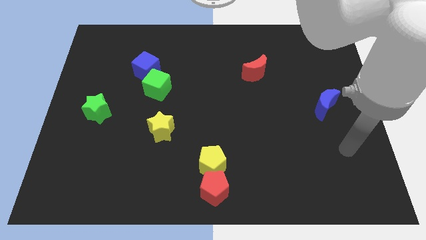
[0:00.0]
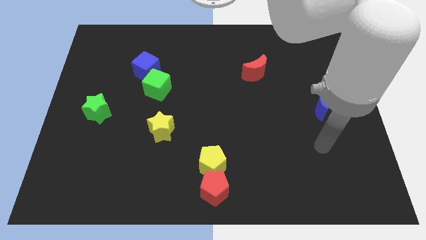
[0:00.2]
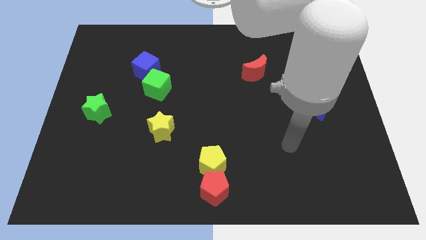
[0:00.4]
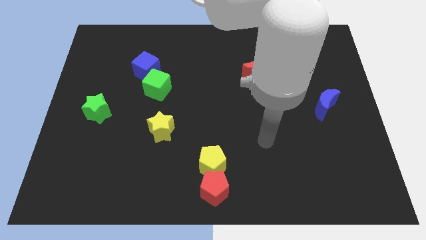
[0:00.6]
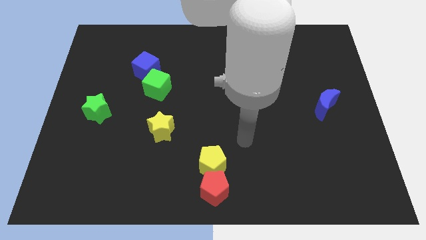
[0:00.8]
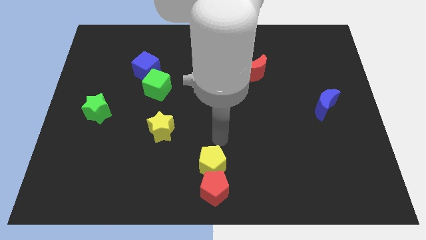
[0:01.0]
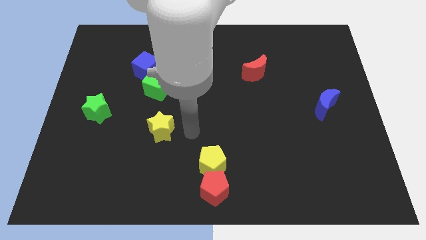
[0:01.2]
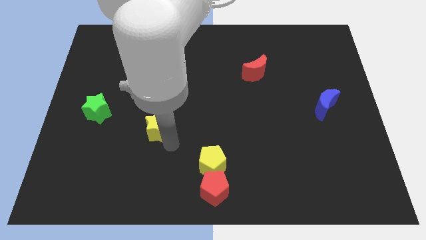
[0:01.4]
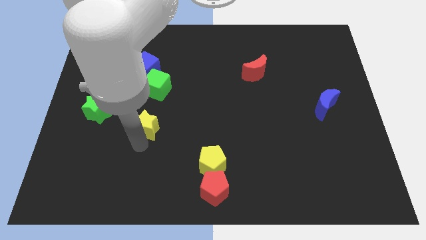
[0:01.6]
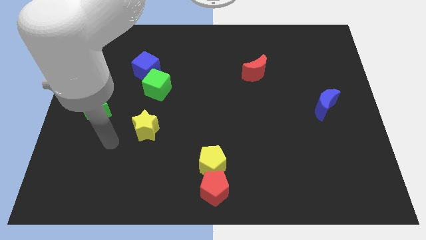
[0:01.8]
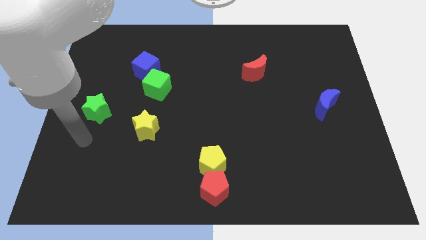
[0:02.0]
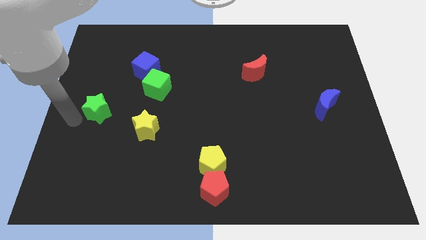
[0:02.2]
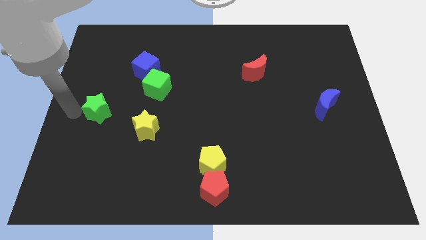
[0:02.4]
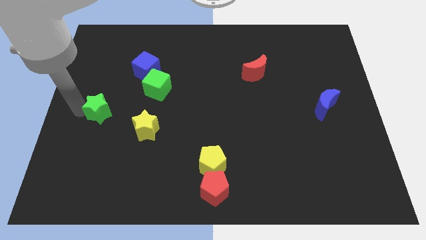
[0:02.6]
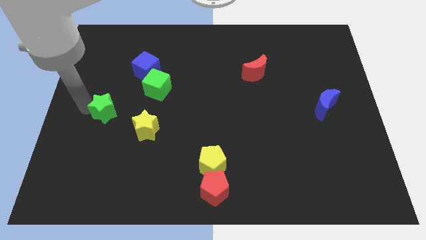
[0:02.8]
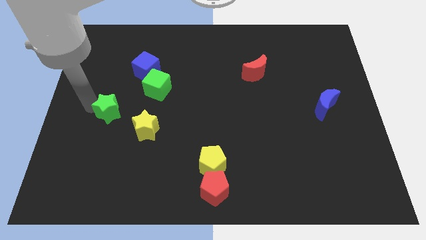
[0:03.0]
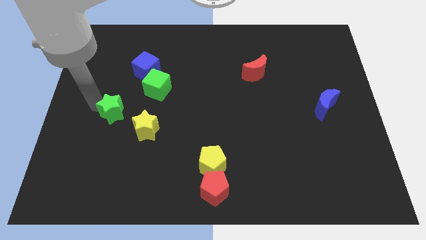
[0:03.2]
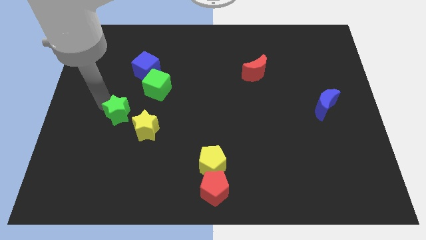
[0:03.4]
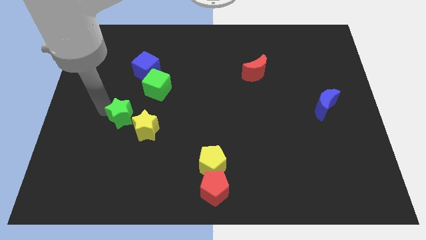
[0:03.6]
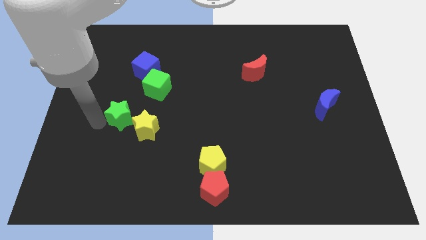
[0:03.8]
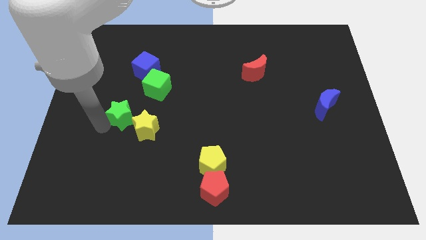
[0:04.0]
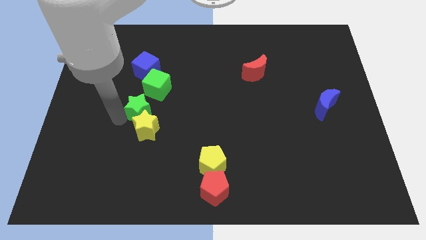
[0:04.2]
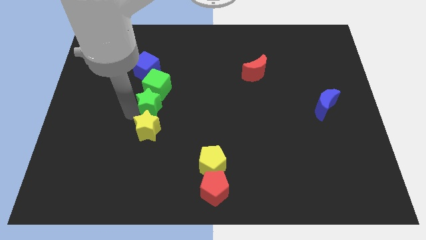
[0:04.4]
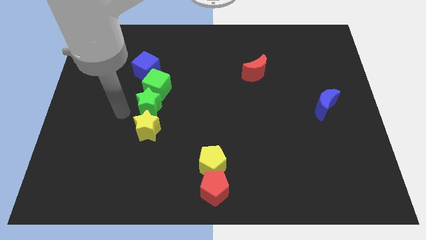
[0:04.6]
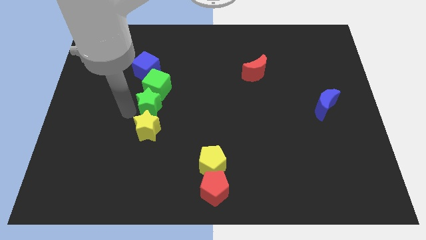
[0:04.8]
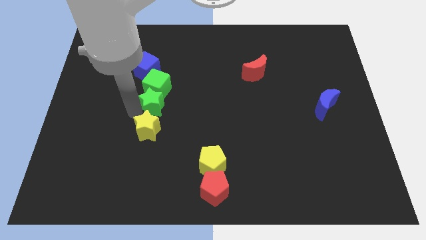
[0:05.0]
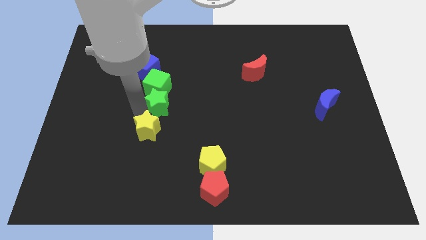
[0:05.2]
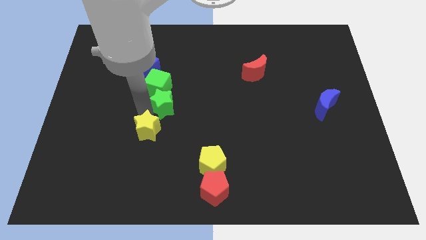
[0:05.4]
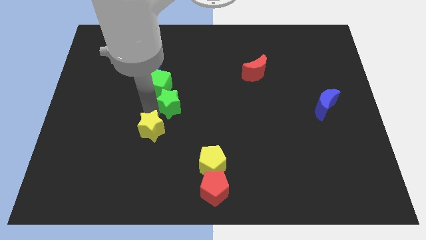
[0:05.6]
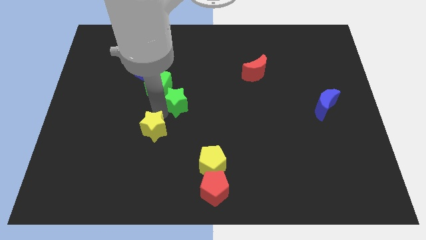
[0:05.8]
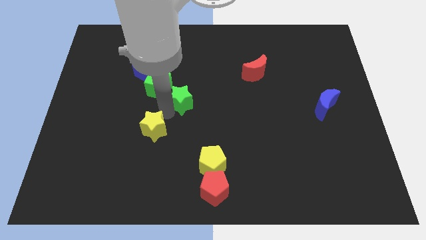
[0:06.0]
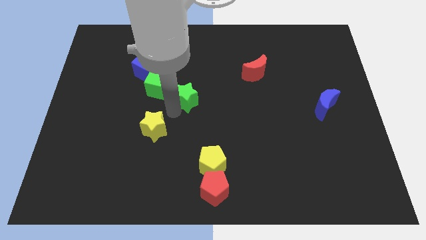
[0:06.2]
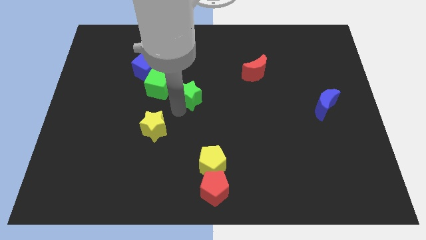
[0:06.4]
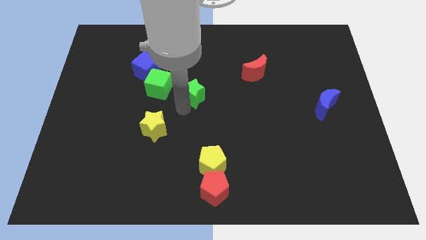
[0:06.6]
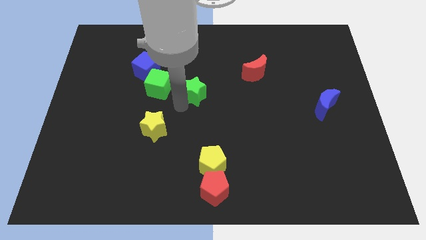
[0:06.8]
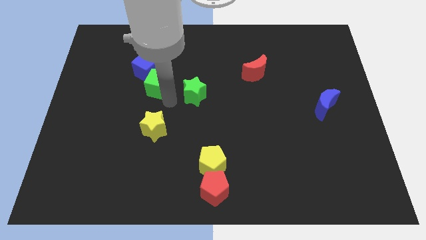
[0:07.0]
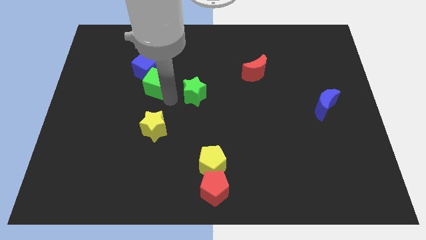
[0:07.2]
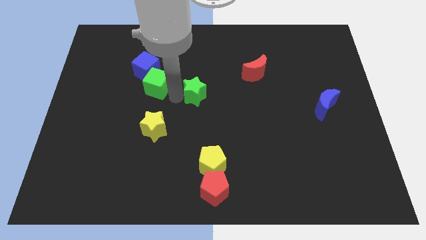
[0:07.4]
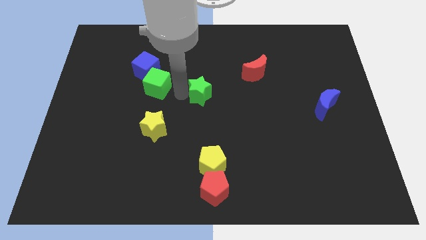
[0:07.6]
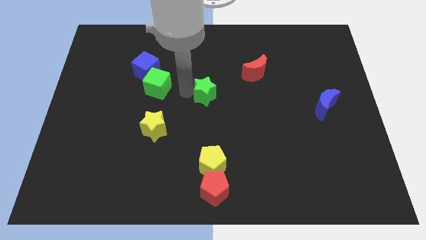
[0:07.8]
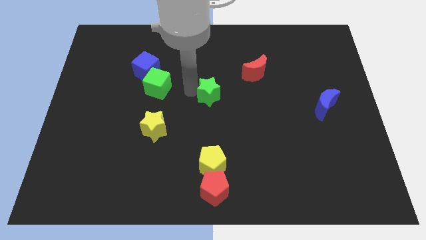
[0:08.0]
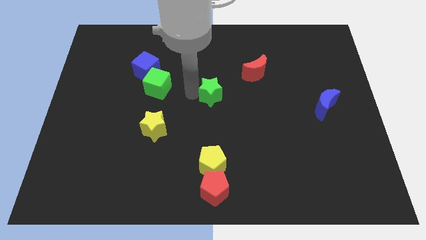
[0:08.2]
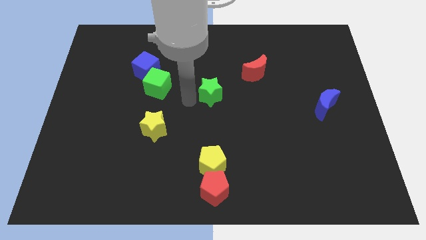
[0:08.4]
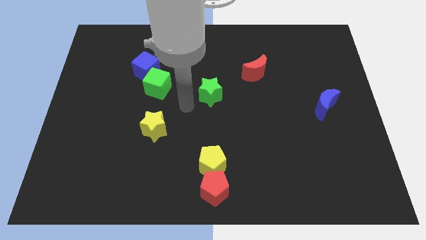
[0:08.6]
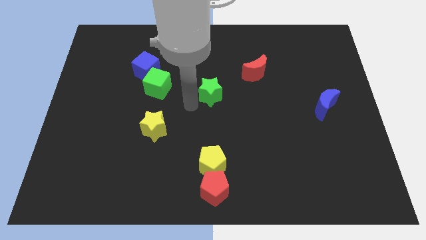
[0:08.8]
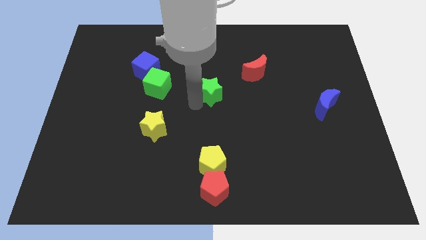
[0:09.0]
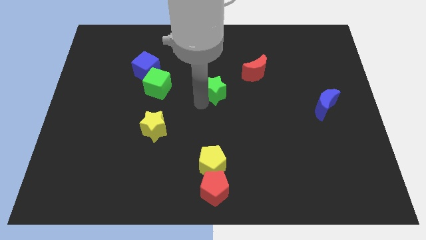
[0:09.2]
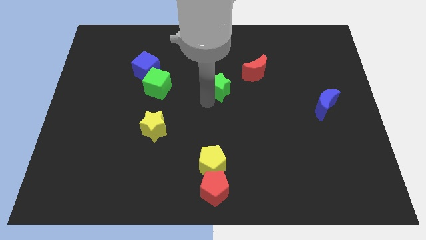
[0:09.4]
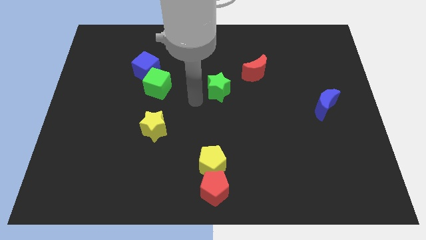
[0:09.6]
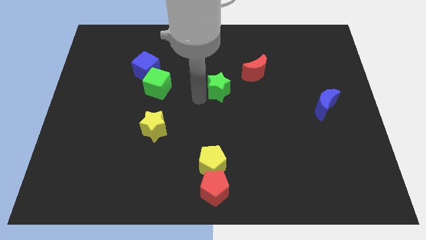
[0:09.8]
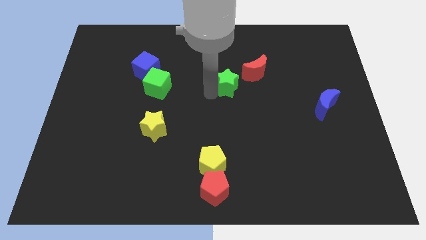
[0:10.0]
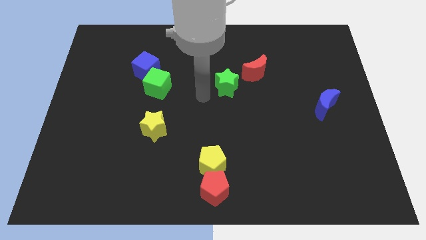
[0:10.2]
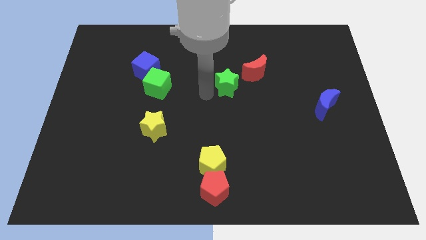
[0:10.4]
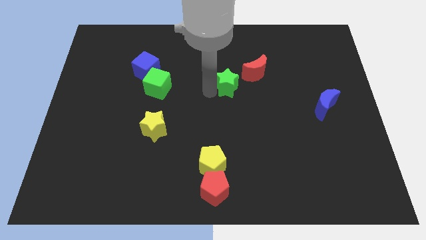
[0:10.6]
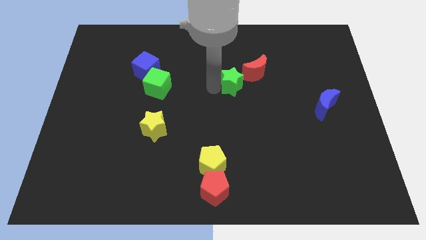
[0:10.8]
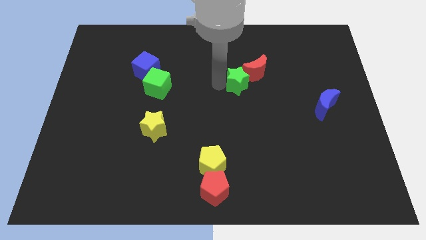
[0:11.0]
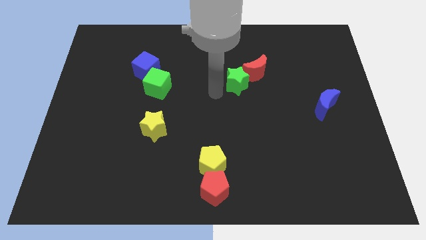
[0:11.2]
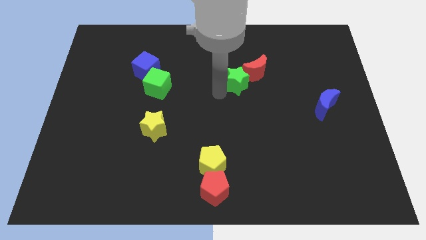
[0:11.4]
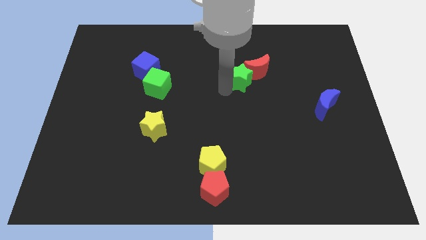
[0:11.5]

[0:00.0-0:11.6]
put the green star to the red moon

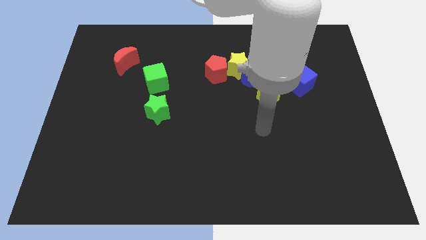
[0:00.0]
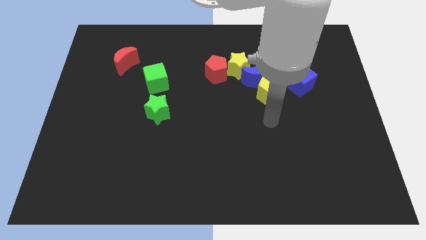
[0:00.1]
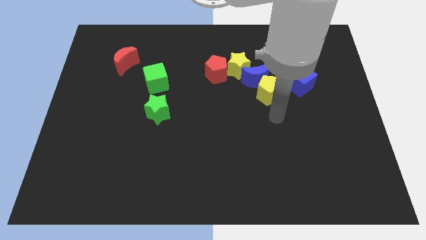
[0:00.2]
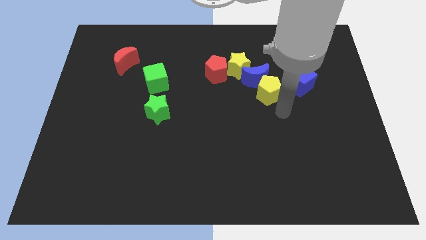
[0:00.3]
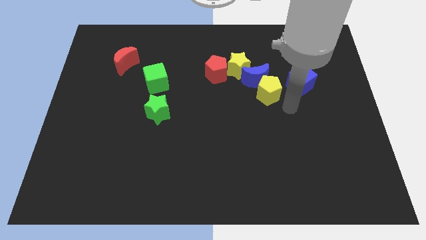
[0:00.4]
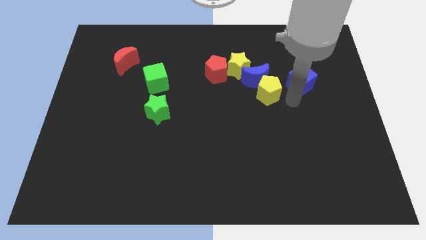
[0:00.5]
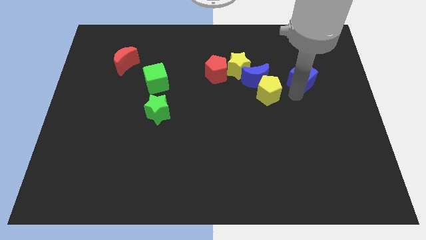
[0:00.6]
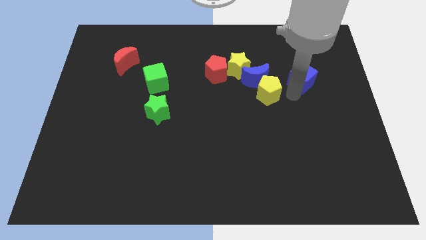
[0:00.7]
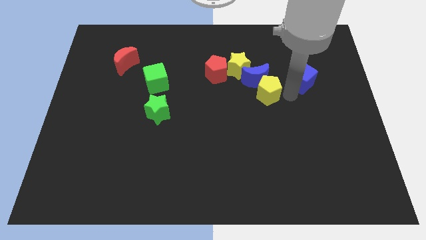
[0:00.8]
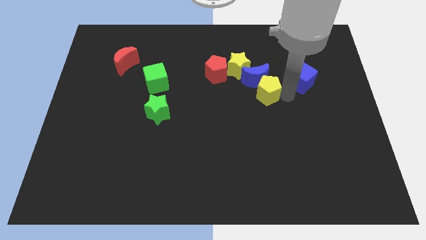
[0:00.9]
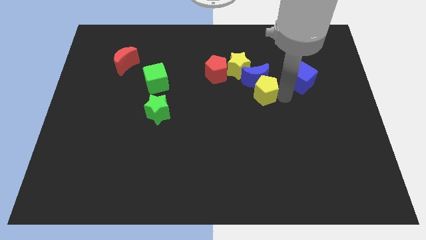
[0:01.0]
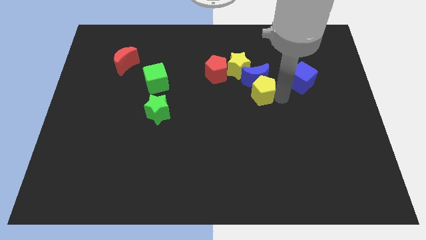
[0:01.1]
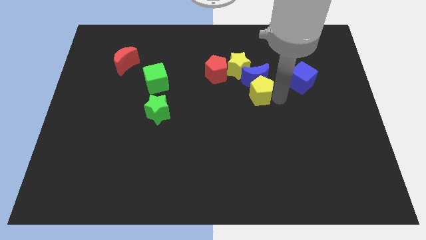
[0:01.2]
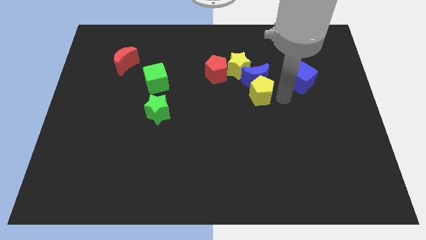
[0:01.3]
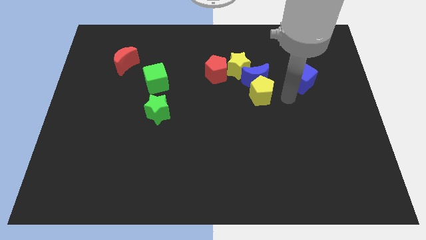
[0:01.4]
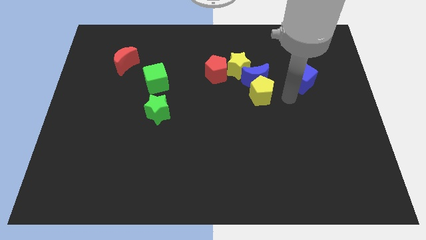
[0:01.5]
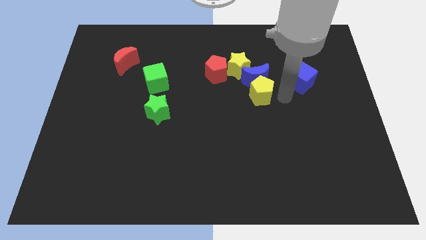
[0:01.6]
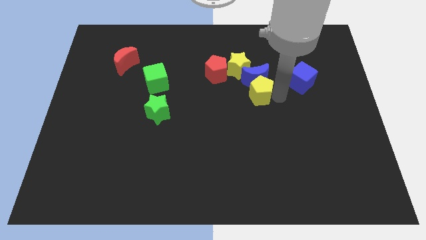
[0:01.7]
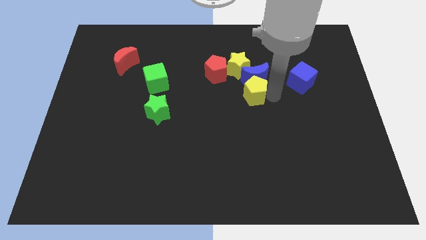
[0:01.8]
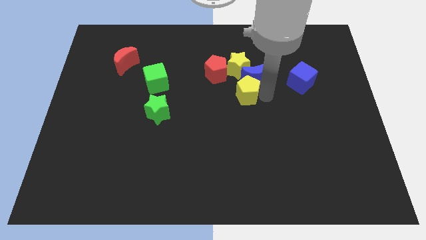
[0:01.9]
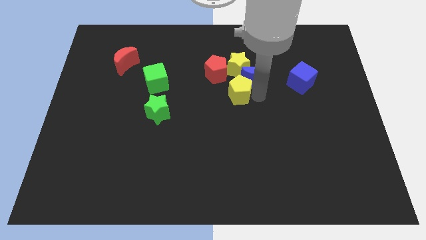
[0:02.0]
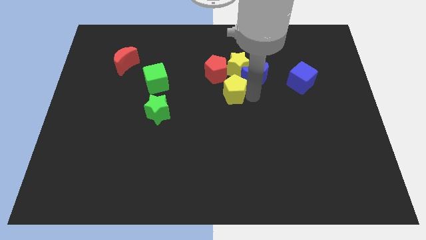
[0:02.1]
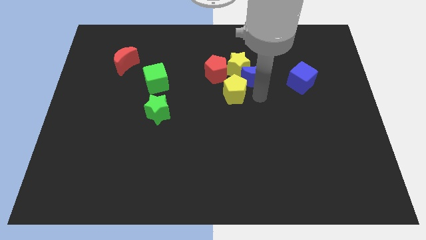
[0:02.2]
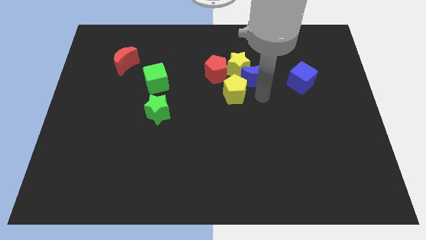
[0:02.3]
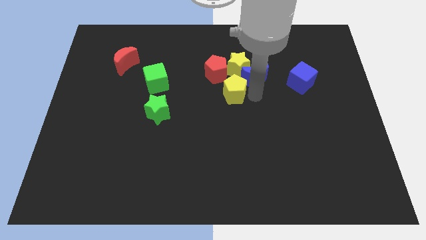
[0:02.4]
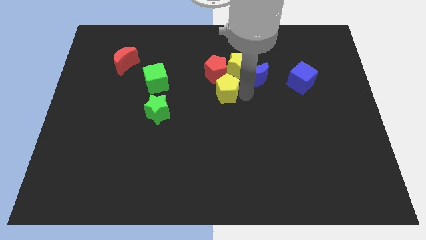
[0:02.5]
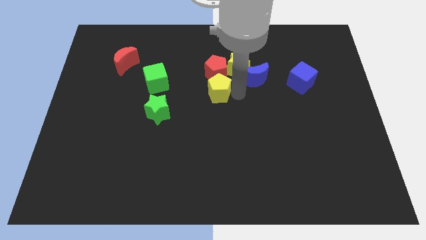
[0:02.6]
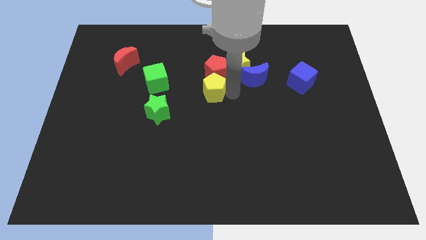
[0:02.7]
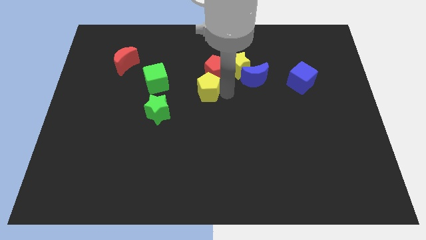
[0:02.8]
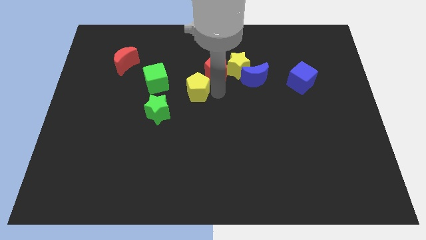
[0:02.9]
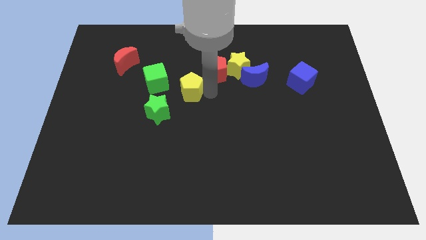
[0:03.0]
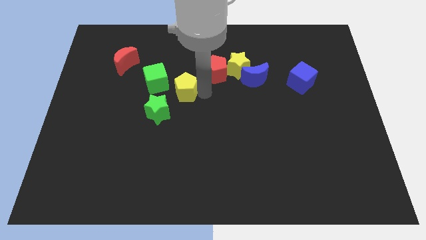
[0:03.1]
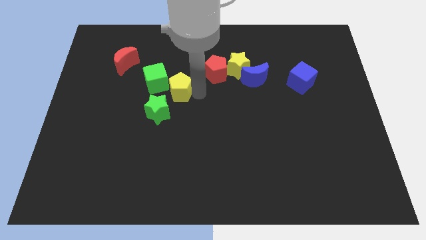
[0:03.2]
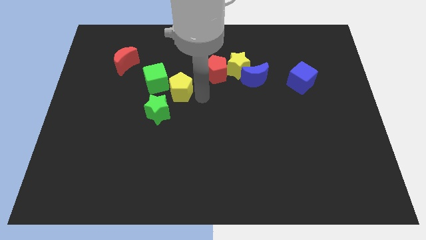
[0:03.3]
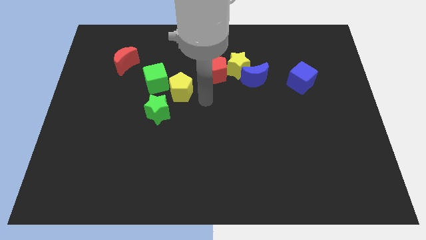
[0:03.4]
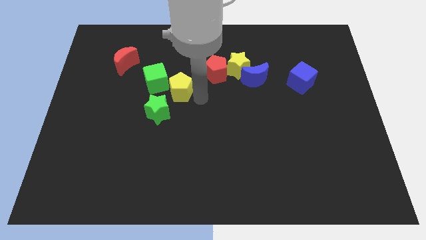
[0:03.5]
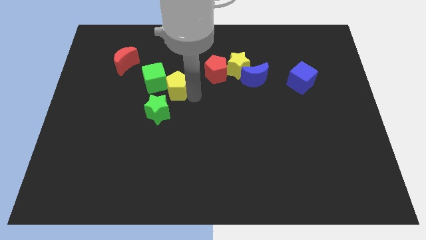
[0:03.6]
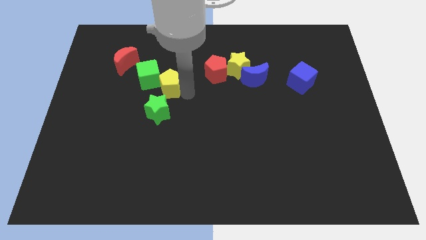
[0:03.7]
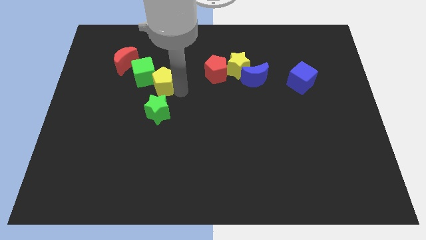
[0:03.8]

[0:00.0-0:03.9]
slide the yellow pentagon towards the green cube
